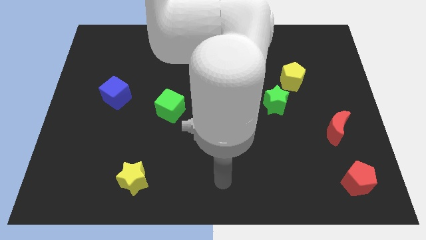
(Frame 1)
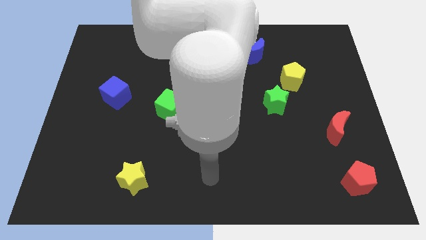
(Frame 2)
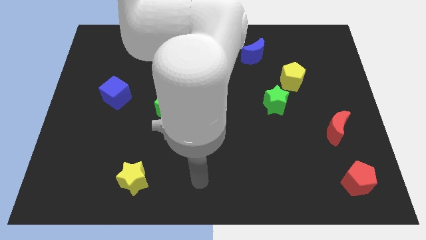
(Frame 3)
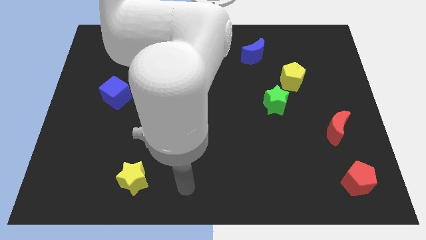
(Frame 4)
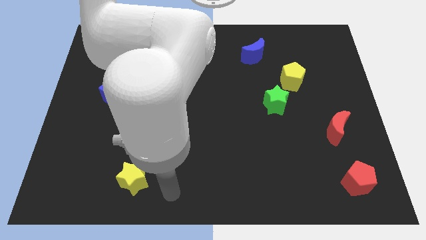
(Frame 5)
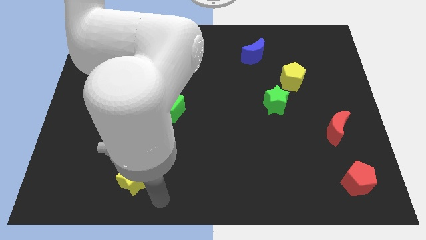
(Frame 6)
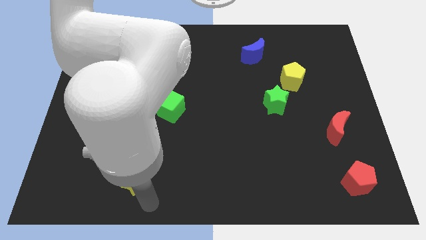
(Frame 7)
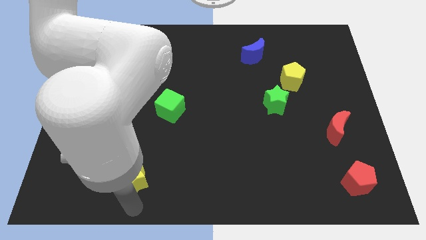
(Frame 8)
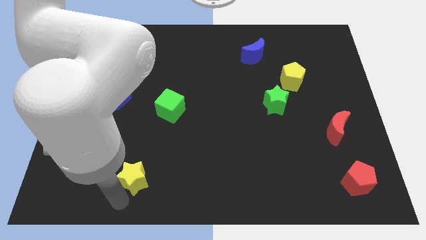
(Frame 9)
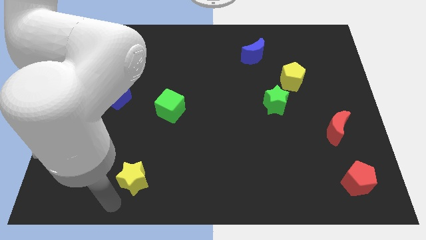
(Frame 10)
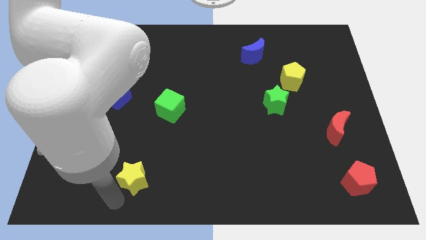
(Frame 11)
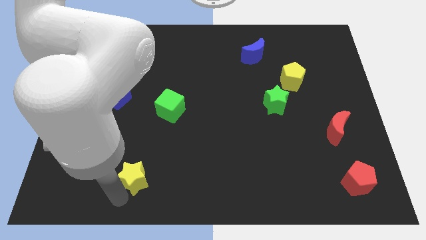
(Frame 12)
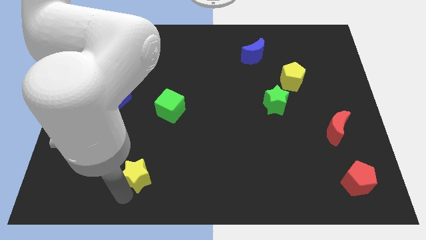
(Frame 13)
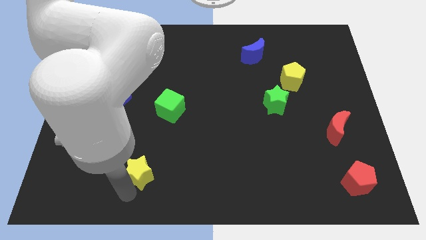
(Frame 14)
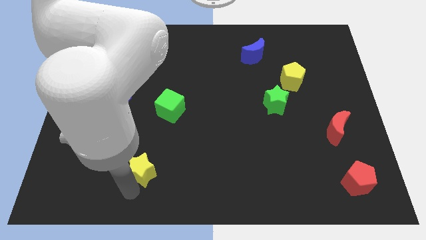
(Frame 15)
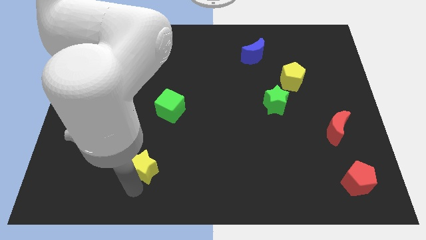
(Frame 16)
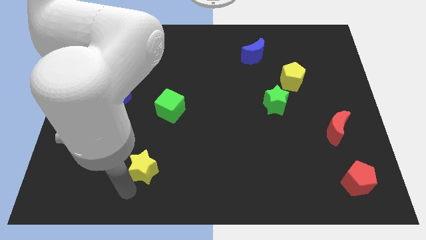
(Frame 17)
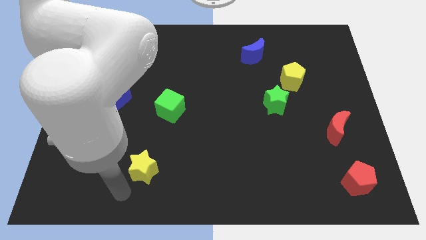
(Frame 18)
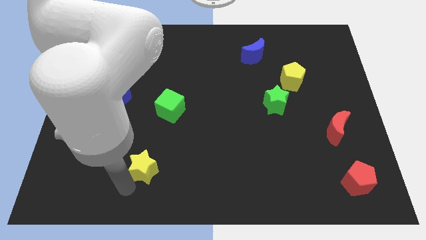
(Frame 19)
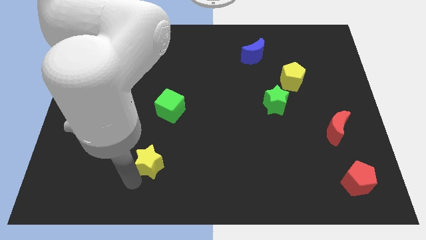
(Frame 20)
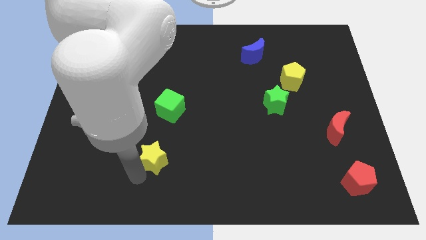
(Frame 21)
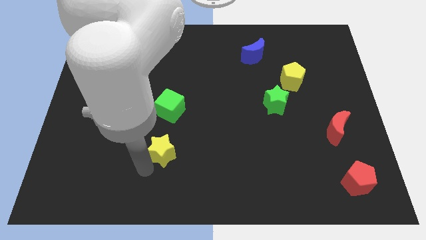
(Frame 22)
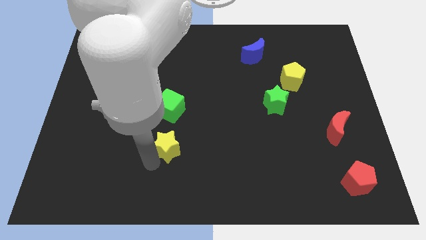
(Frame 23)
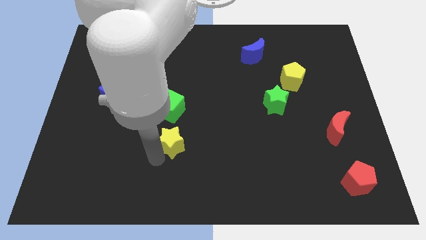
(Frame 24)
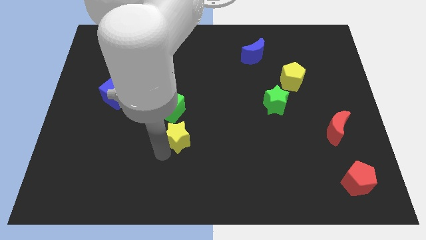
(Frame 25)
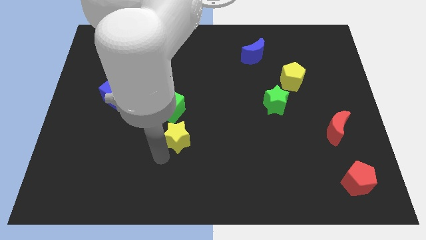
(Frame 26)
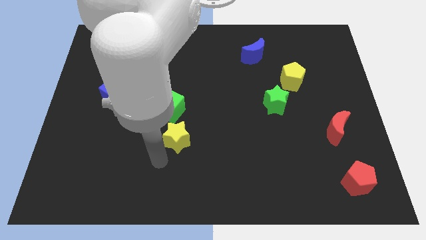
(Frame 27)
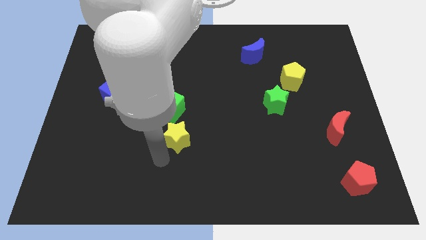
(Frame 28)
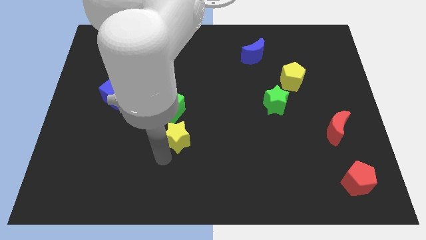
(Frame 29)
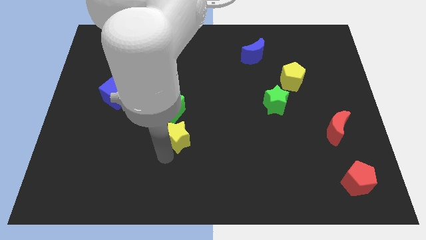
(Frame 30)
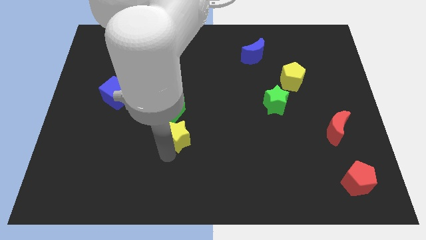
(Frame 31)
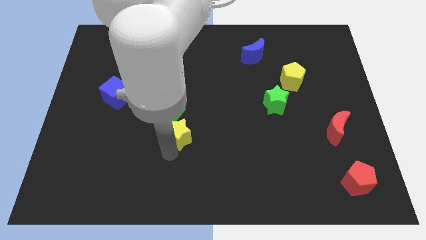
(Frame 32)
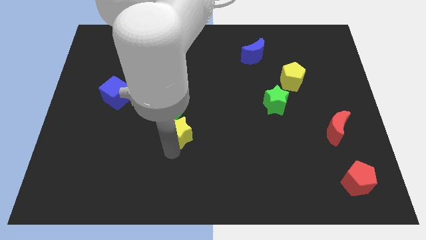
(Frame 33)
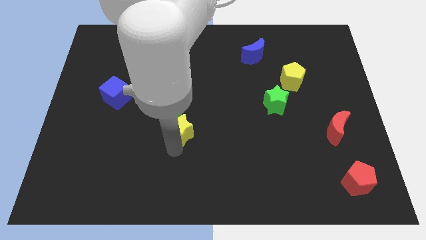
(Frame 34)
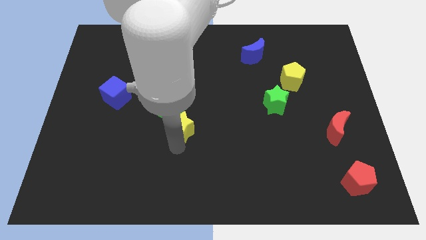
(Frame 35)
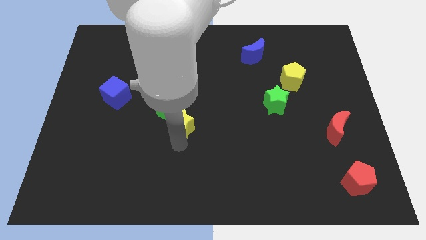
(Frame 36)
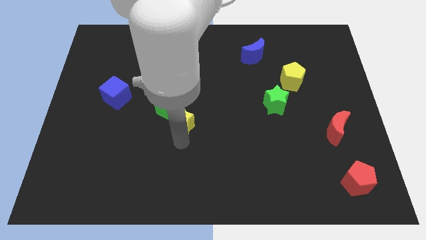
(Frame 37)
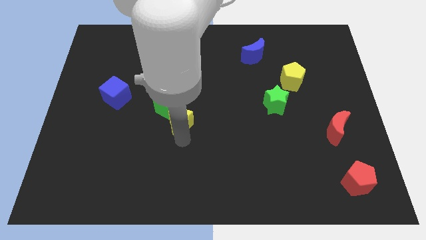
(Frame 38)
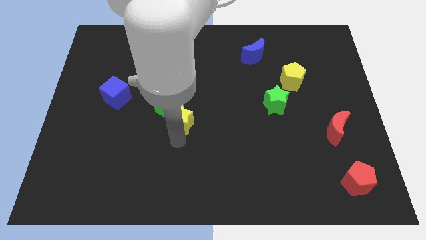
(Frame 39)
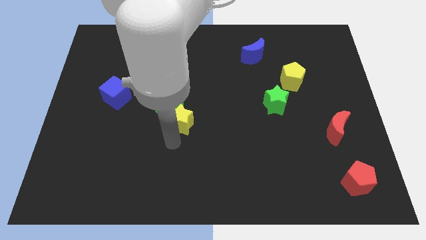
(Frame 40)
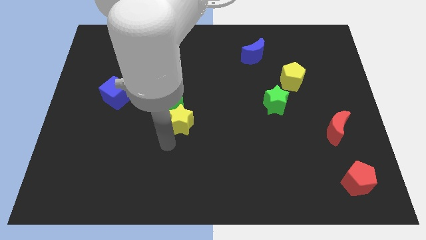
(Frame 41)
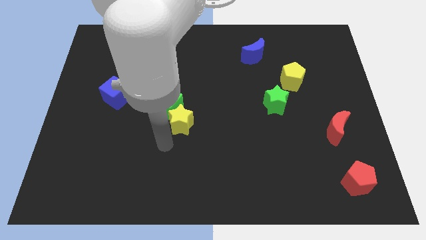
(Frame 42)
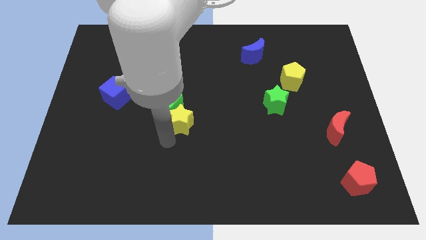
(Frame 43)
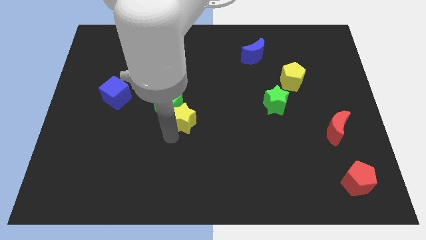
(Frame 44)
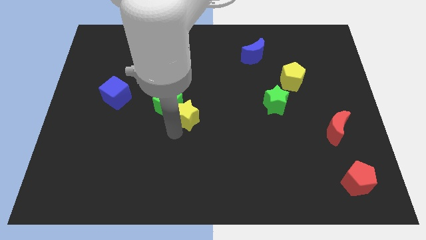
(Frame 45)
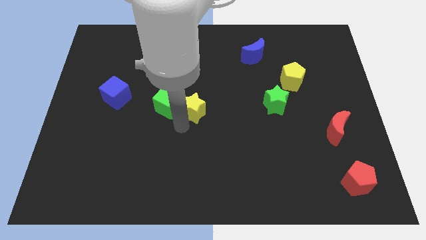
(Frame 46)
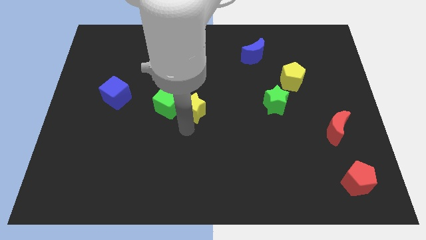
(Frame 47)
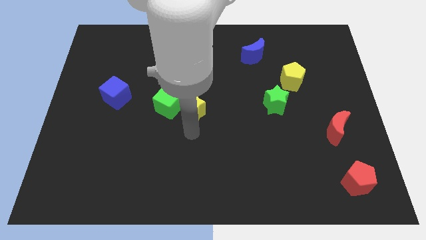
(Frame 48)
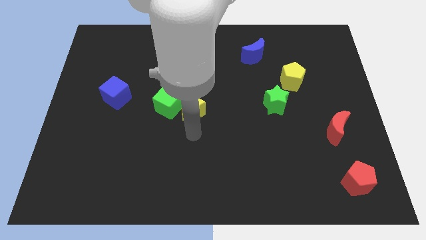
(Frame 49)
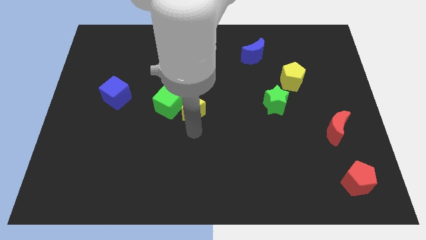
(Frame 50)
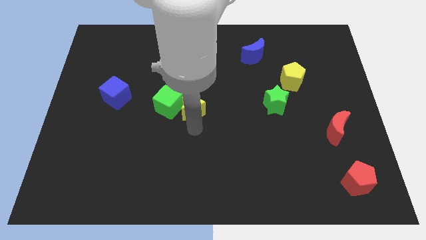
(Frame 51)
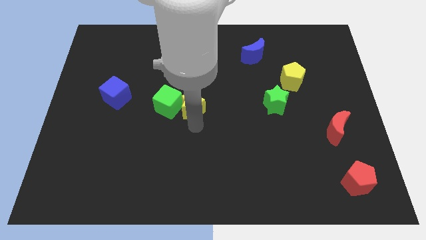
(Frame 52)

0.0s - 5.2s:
put the yellow star diagonally up and to the right of the green cube

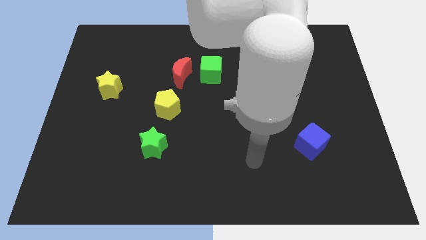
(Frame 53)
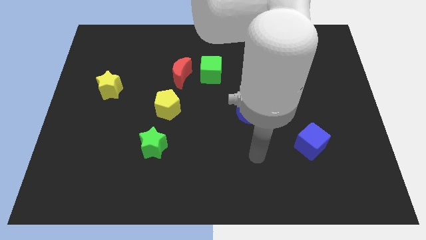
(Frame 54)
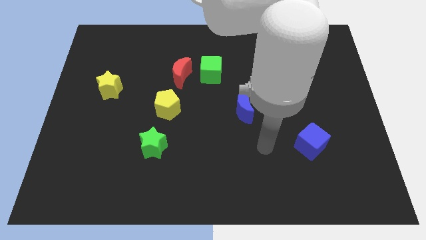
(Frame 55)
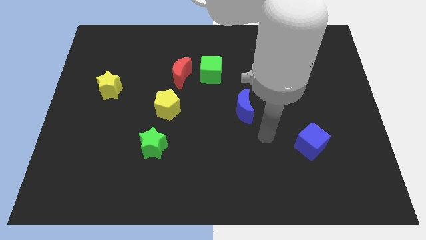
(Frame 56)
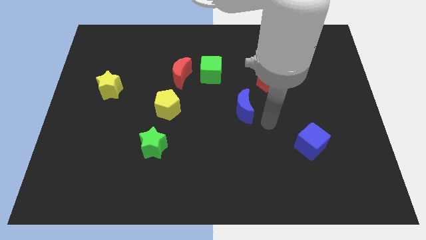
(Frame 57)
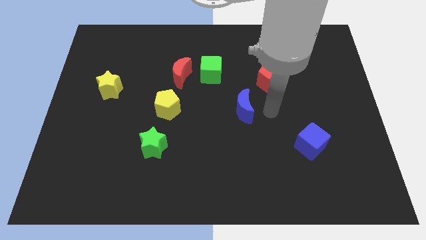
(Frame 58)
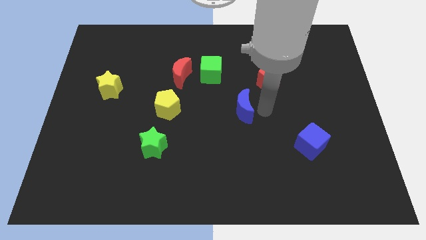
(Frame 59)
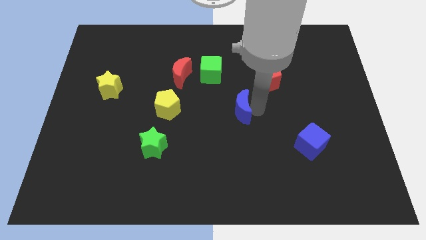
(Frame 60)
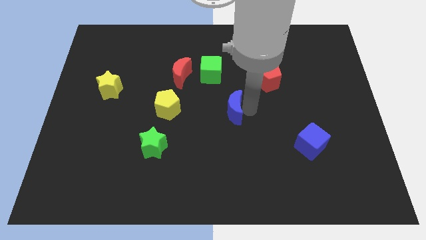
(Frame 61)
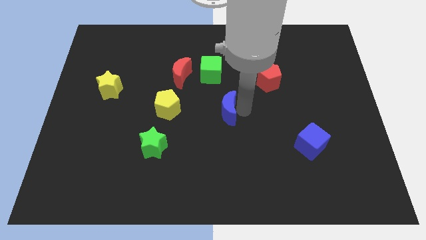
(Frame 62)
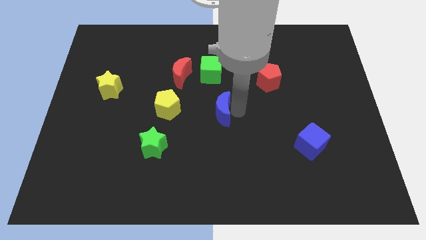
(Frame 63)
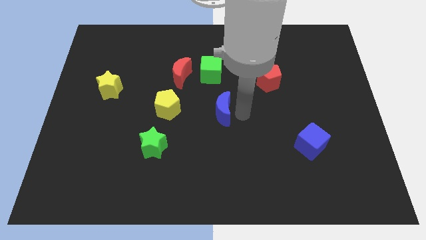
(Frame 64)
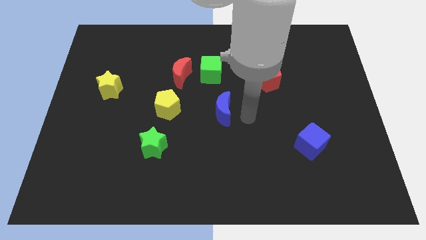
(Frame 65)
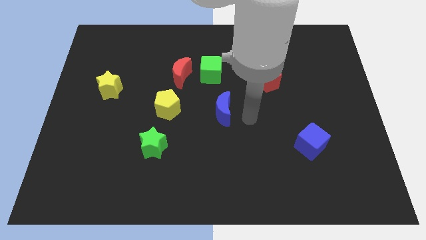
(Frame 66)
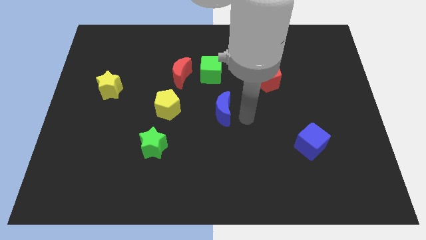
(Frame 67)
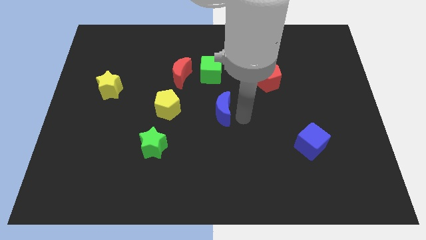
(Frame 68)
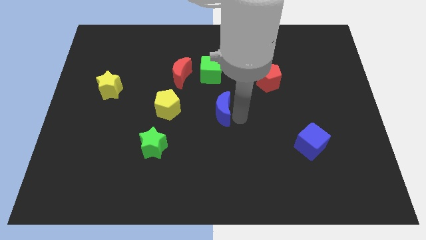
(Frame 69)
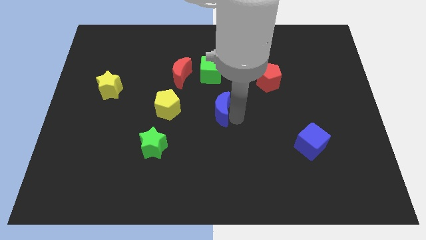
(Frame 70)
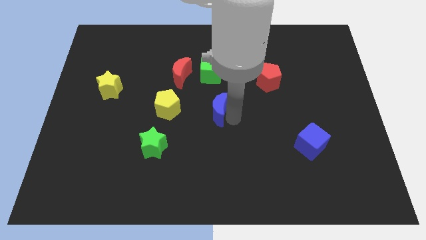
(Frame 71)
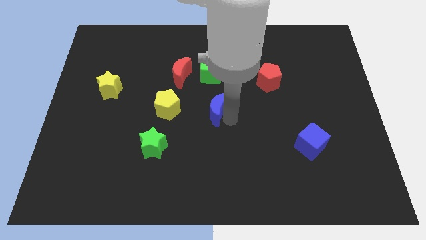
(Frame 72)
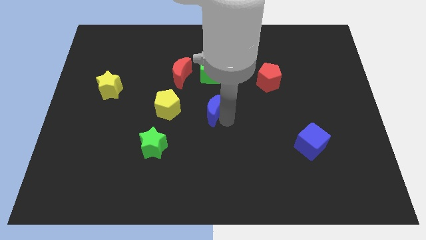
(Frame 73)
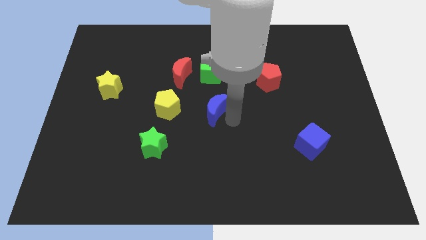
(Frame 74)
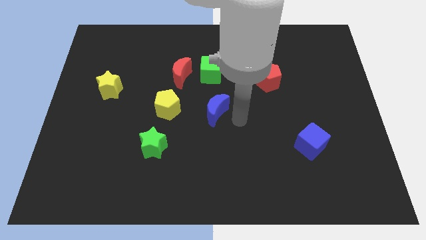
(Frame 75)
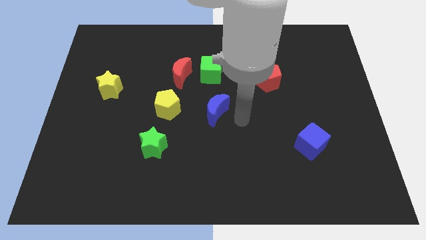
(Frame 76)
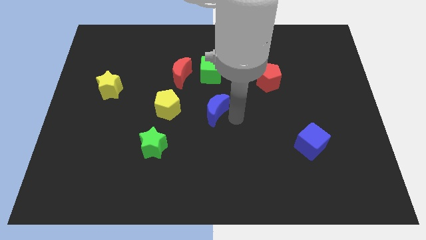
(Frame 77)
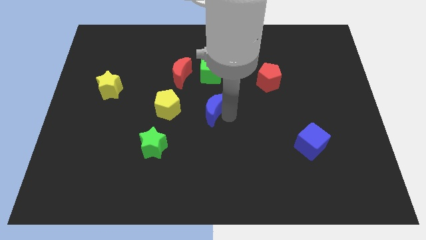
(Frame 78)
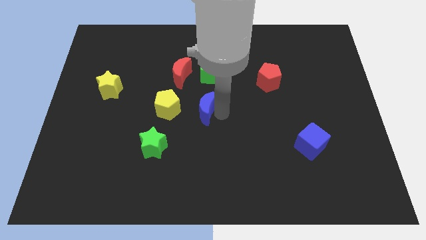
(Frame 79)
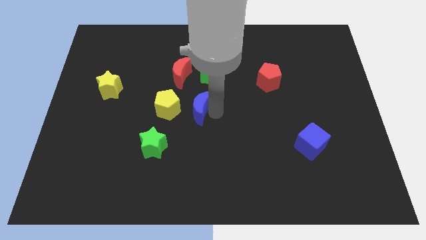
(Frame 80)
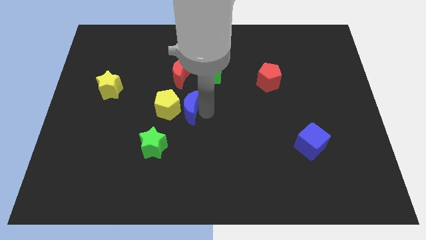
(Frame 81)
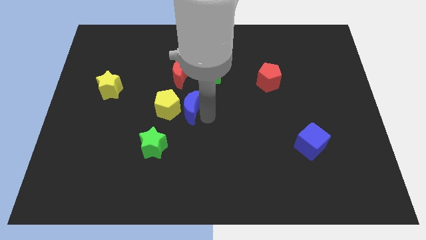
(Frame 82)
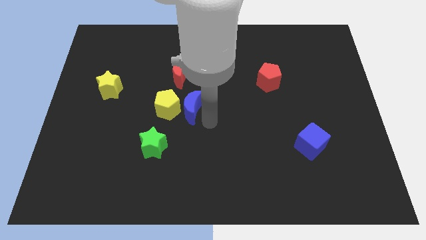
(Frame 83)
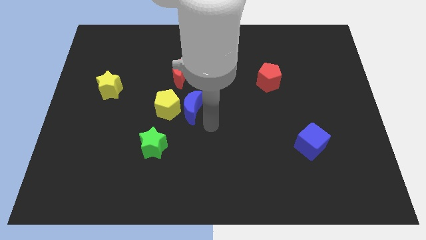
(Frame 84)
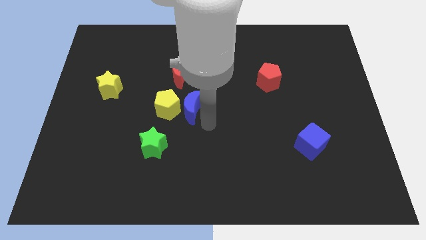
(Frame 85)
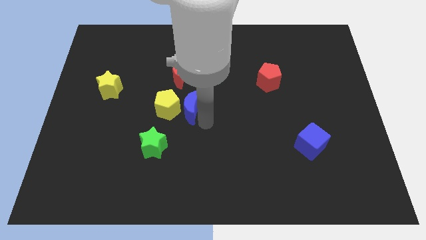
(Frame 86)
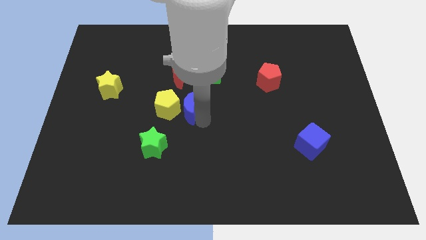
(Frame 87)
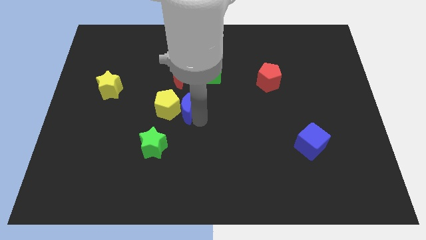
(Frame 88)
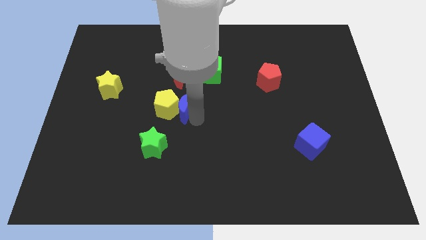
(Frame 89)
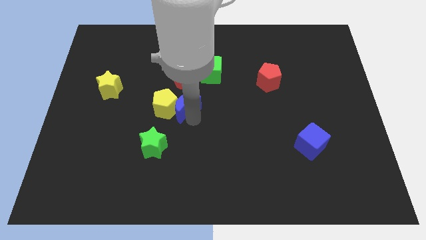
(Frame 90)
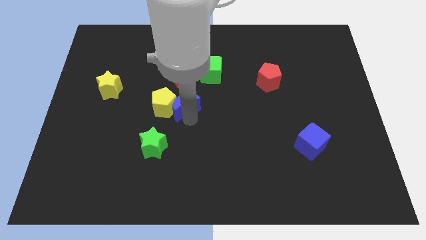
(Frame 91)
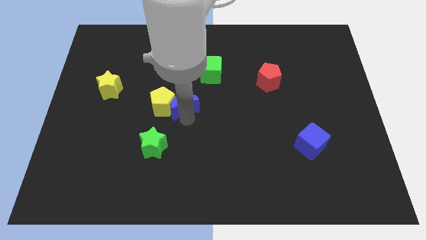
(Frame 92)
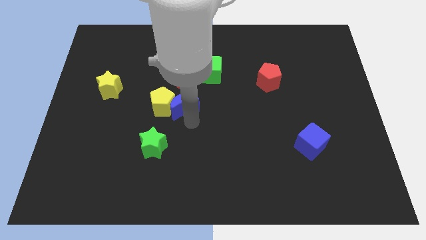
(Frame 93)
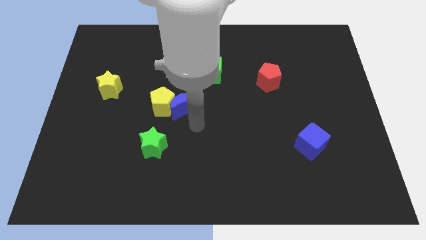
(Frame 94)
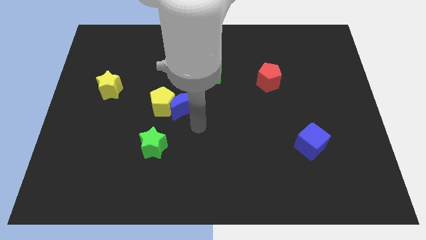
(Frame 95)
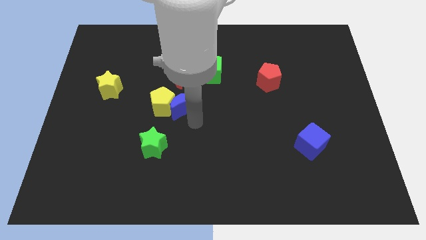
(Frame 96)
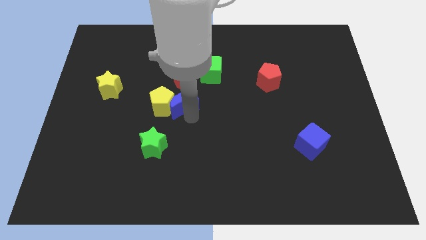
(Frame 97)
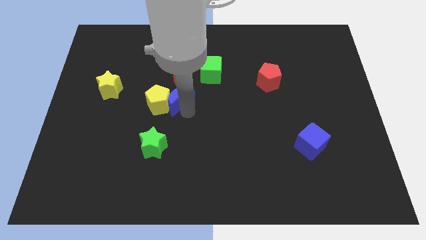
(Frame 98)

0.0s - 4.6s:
slide the blue moon to the top of the green star
